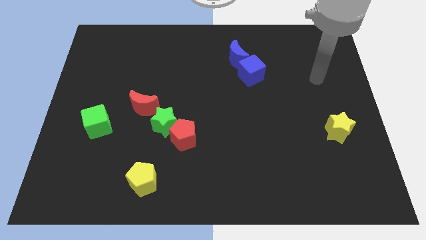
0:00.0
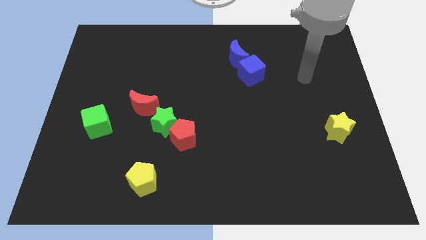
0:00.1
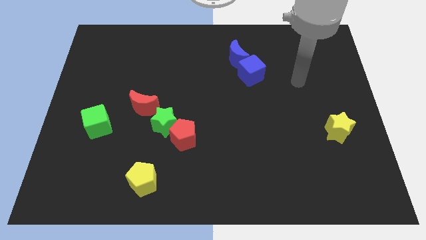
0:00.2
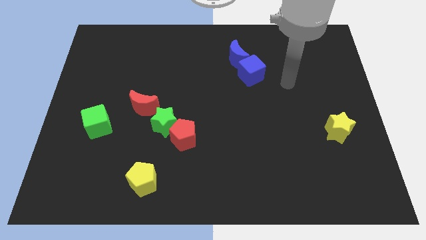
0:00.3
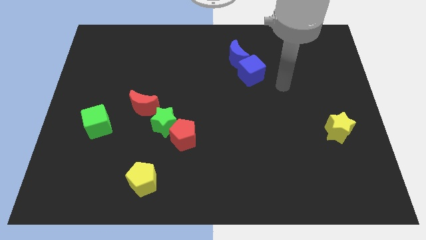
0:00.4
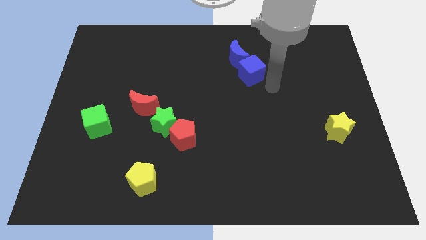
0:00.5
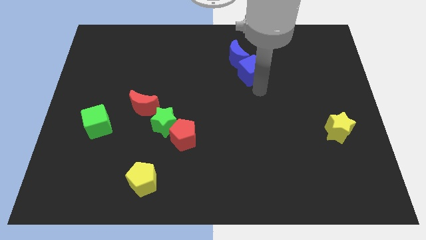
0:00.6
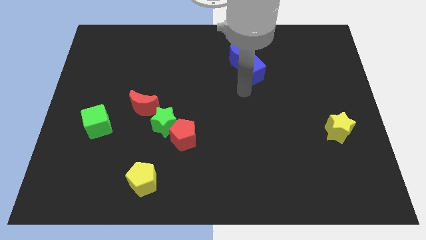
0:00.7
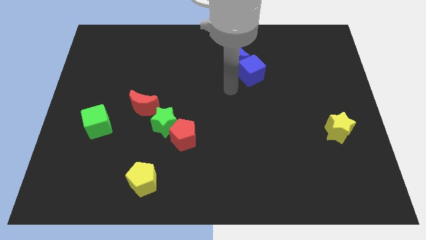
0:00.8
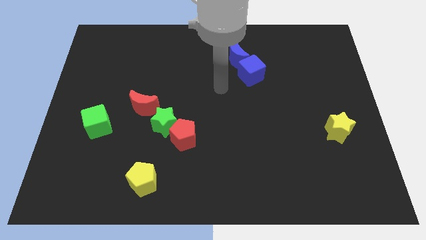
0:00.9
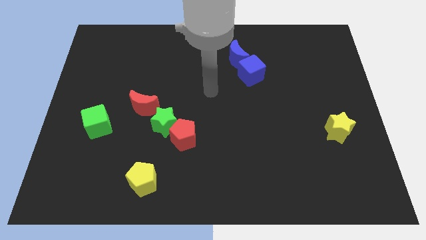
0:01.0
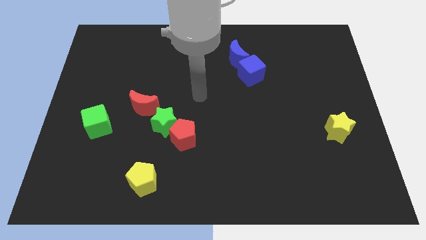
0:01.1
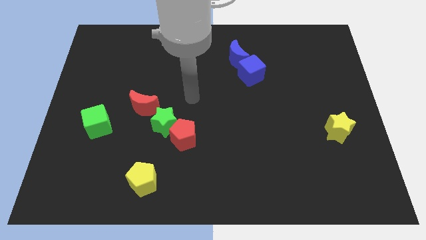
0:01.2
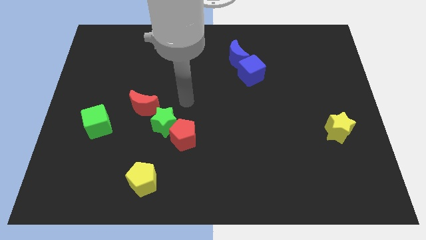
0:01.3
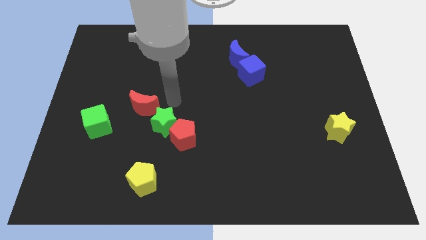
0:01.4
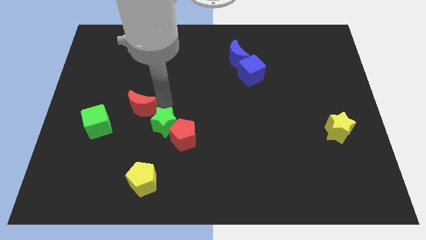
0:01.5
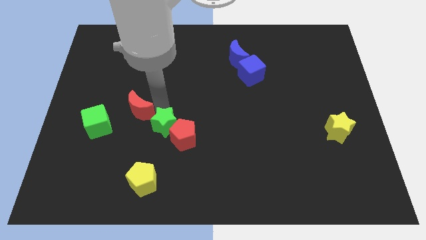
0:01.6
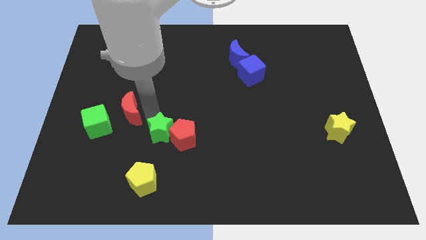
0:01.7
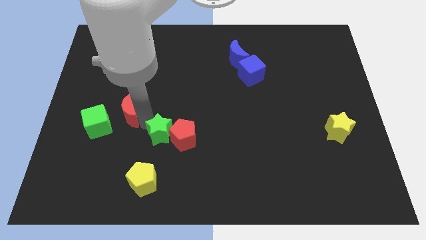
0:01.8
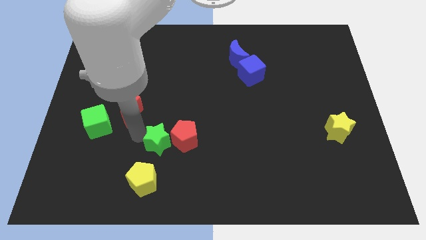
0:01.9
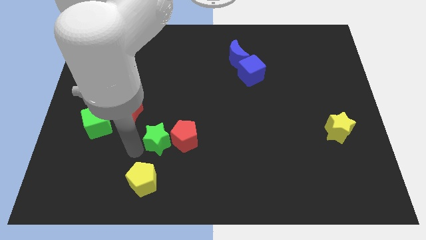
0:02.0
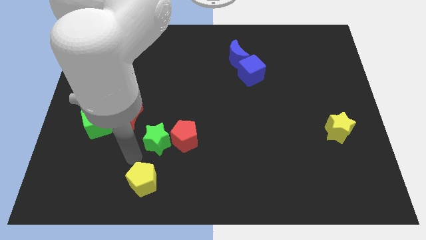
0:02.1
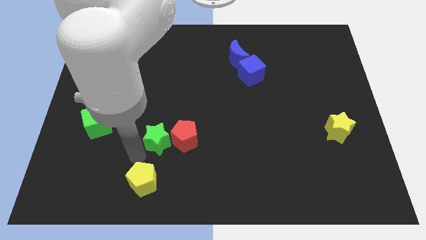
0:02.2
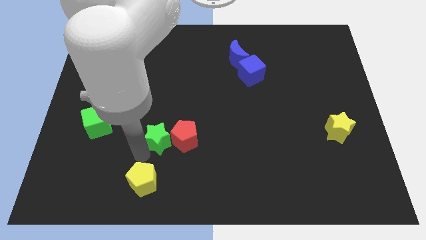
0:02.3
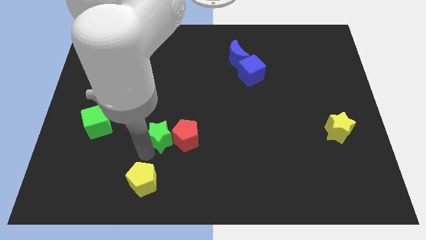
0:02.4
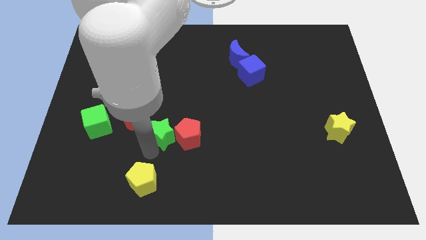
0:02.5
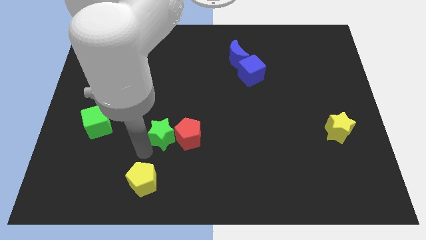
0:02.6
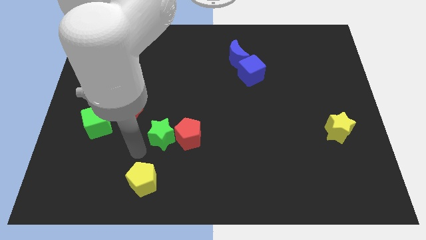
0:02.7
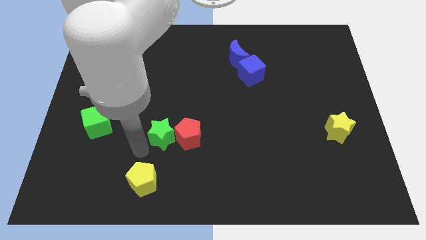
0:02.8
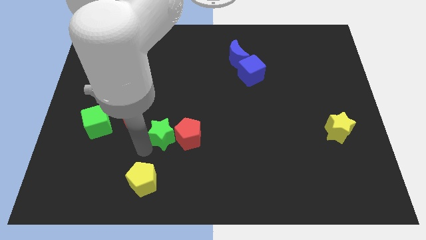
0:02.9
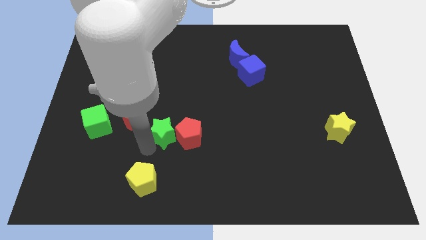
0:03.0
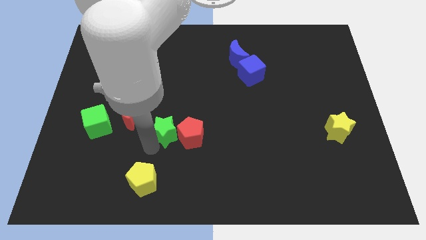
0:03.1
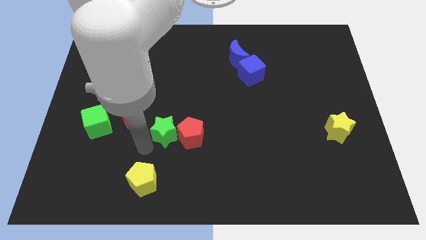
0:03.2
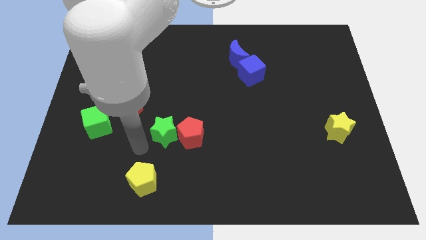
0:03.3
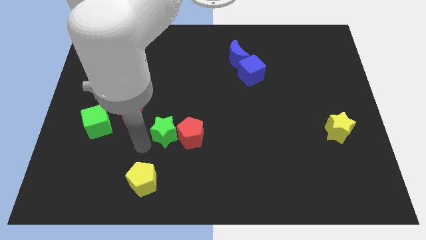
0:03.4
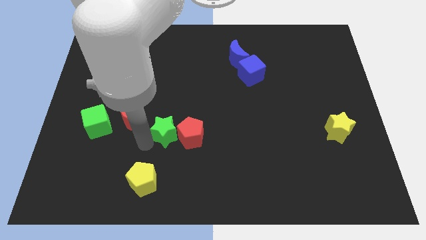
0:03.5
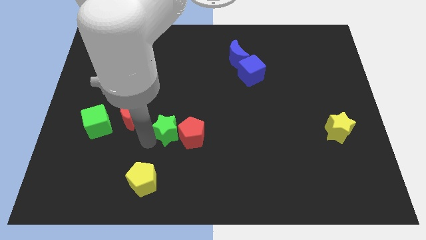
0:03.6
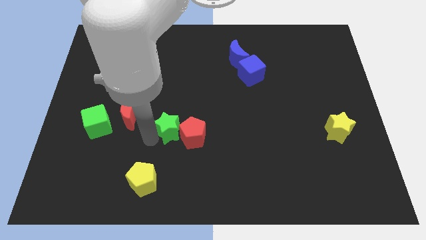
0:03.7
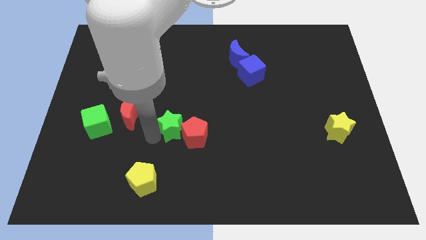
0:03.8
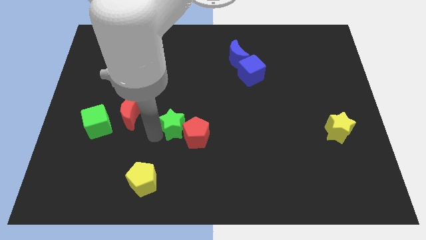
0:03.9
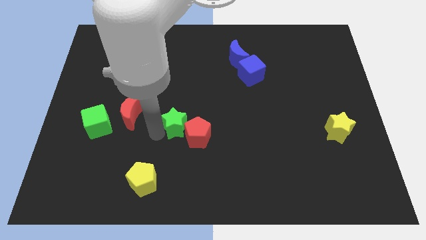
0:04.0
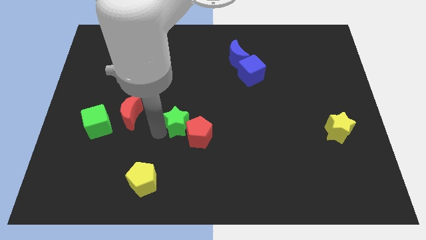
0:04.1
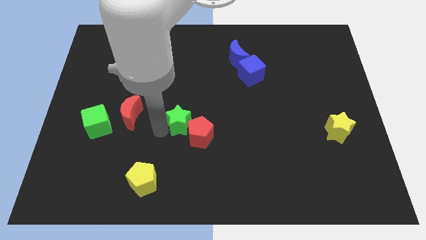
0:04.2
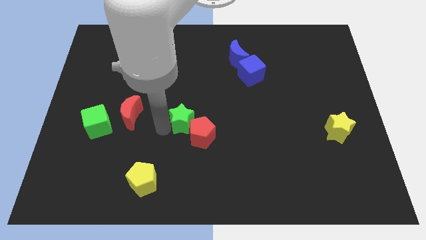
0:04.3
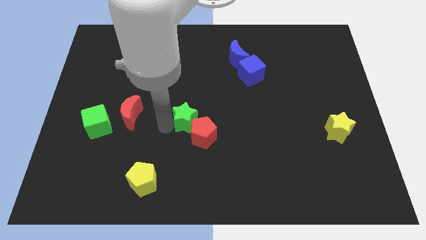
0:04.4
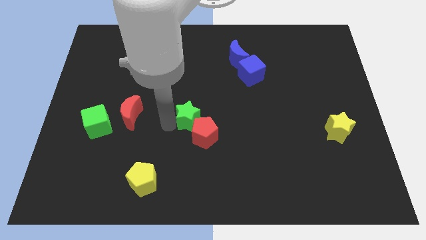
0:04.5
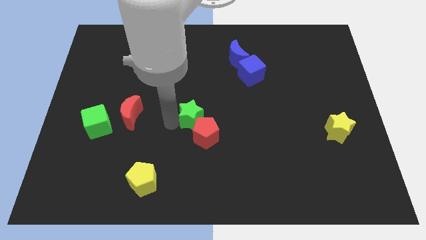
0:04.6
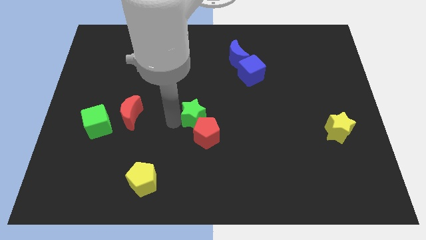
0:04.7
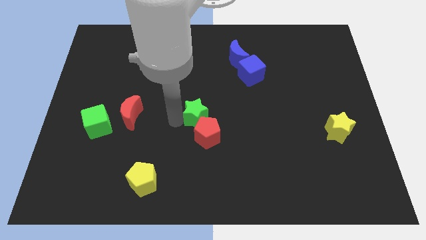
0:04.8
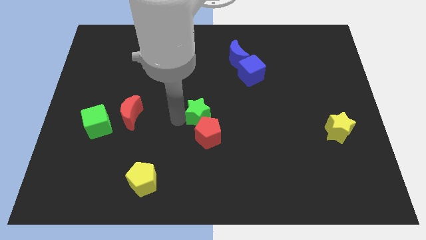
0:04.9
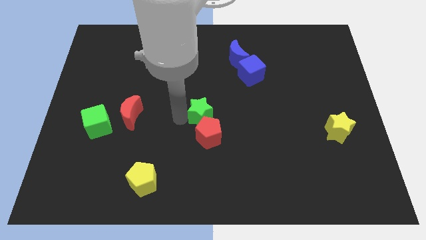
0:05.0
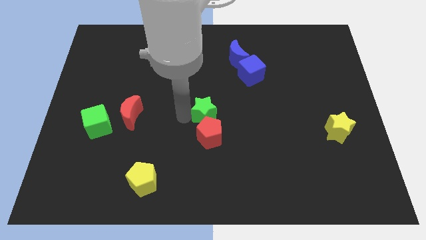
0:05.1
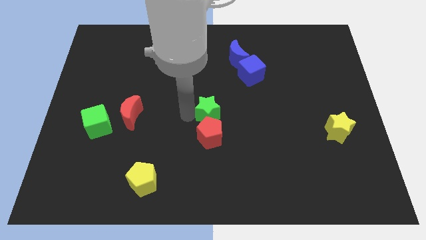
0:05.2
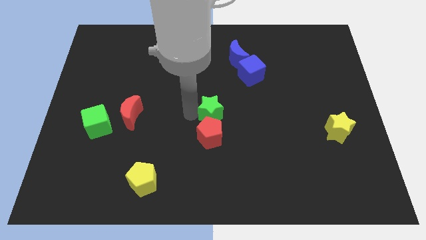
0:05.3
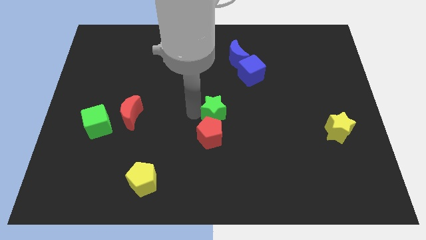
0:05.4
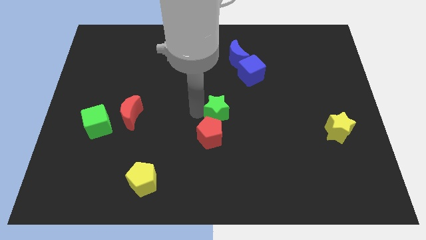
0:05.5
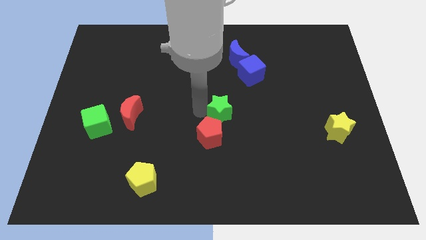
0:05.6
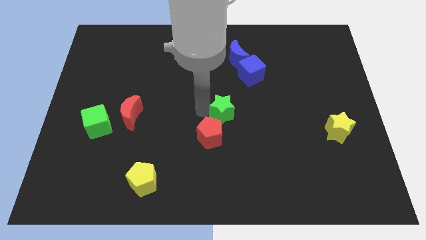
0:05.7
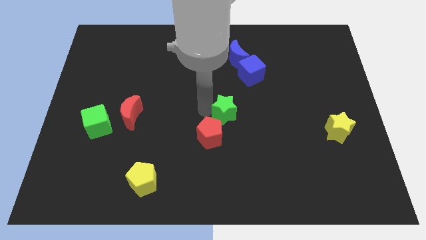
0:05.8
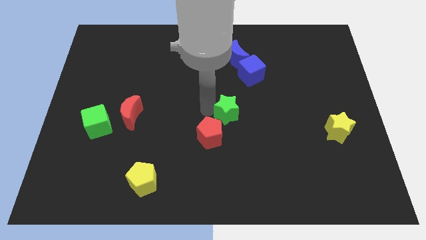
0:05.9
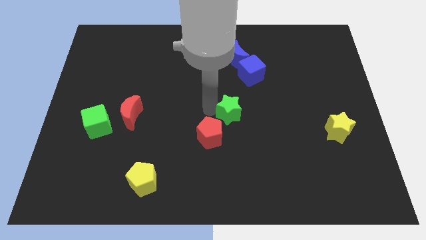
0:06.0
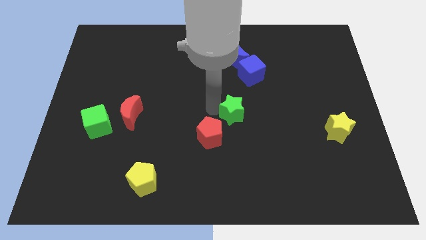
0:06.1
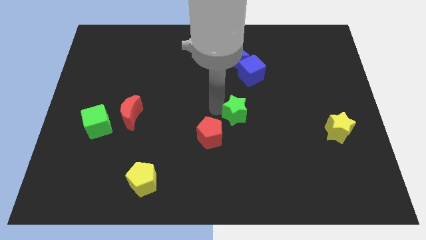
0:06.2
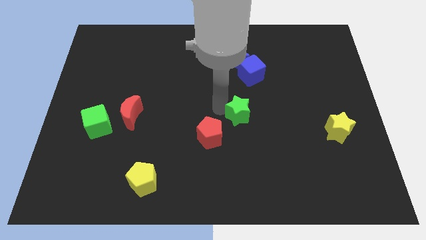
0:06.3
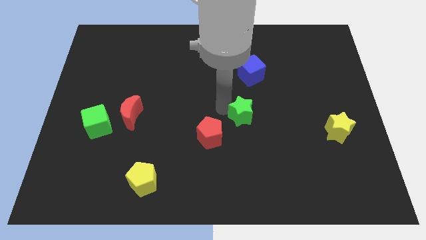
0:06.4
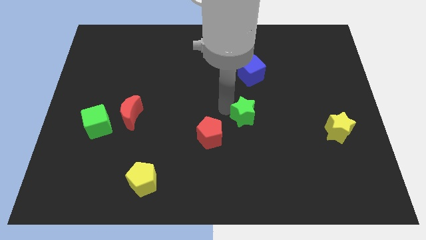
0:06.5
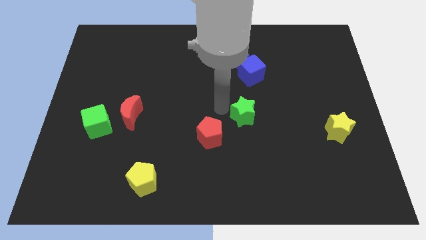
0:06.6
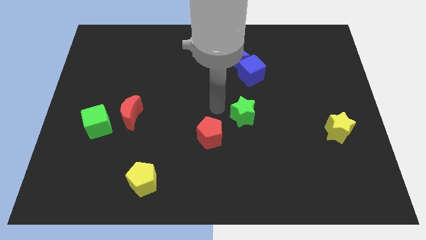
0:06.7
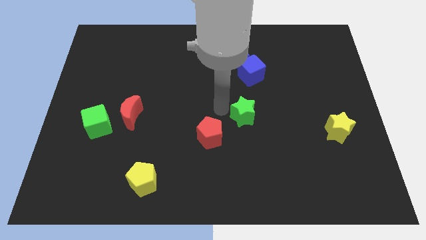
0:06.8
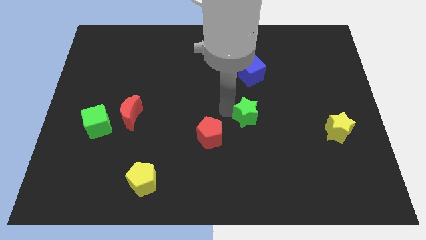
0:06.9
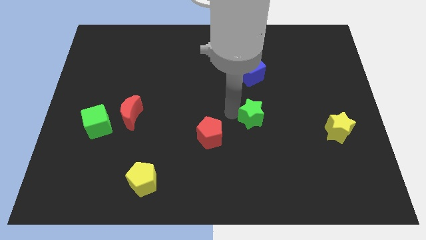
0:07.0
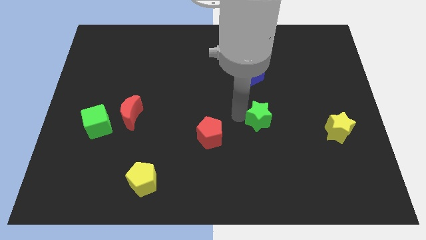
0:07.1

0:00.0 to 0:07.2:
slide the green star to the right

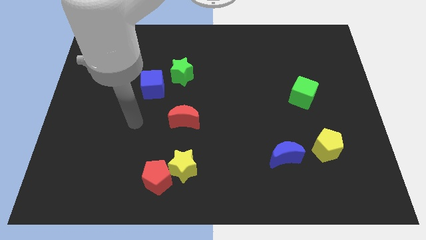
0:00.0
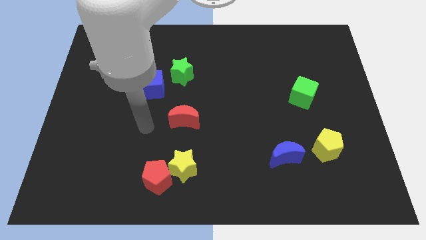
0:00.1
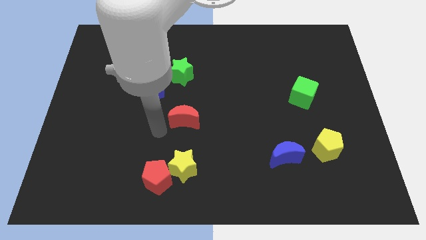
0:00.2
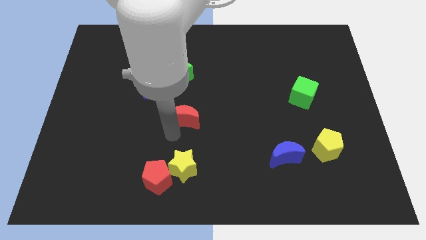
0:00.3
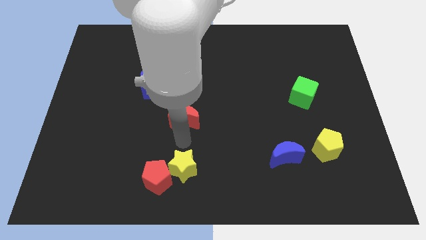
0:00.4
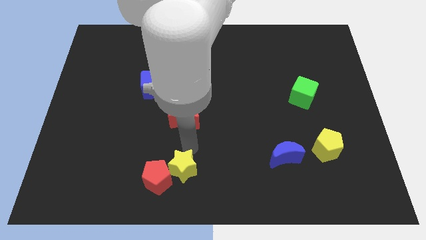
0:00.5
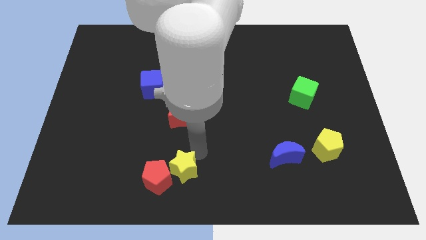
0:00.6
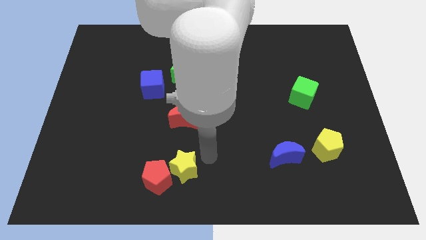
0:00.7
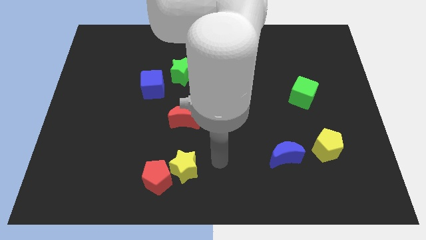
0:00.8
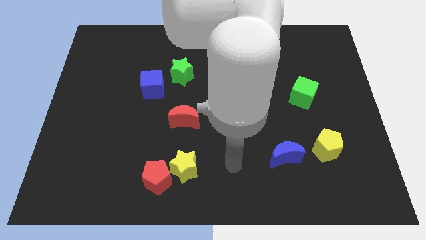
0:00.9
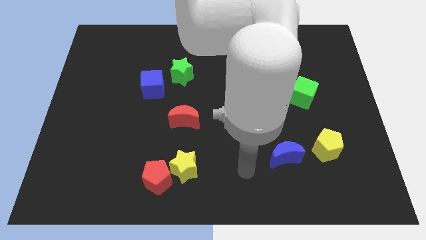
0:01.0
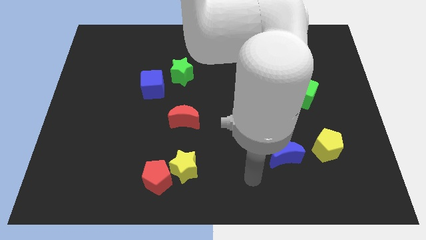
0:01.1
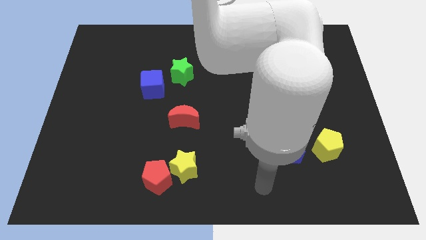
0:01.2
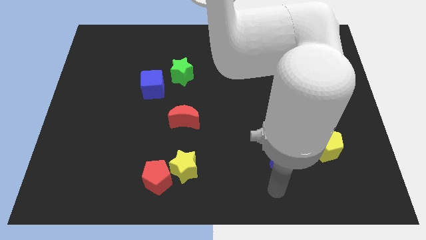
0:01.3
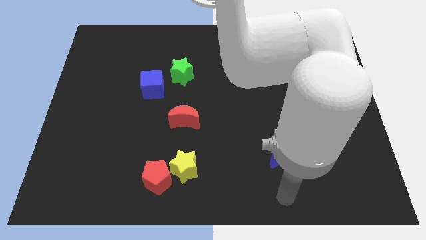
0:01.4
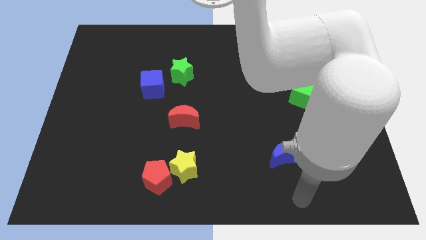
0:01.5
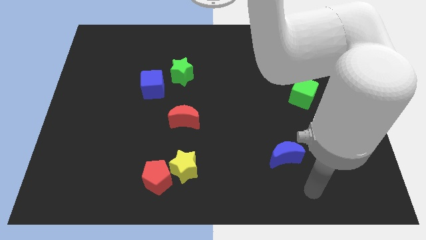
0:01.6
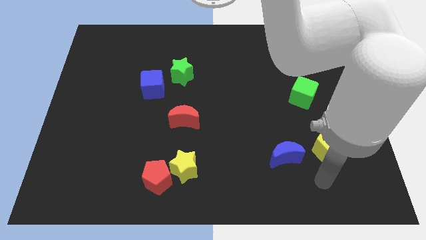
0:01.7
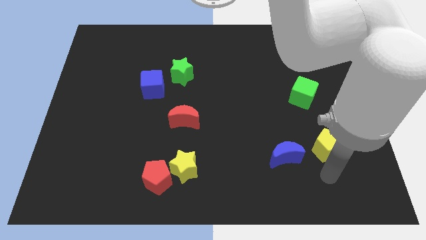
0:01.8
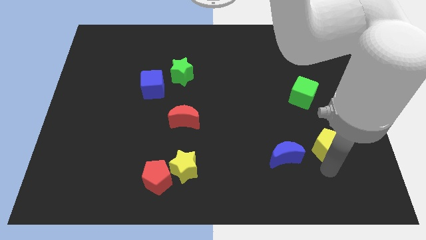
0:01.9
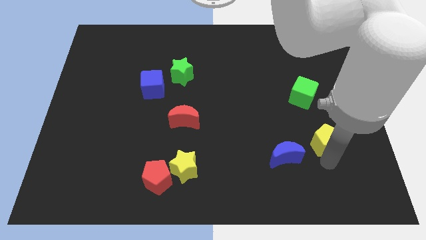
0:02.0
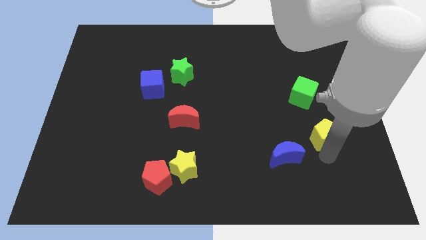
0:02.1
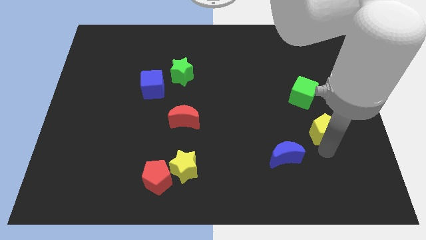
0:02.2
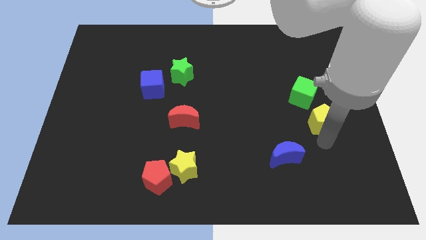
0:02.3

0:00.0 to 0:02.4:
push the yellow pentagon slightly upwards
